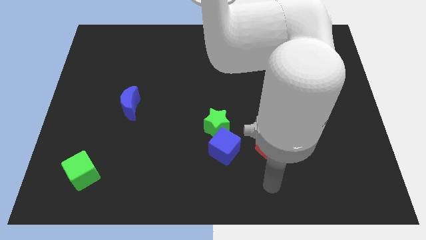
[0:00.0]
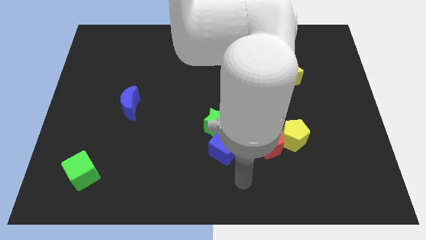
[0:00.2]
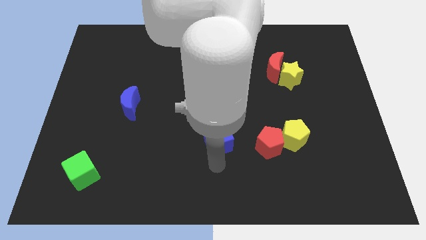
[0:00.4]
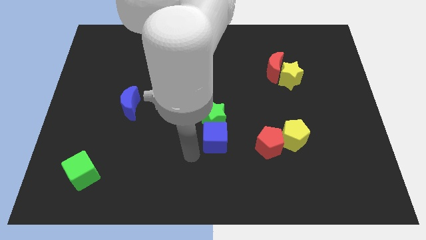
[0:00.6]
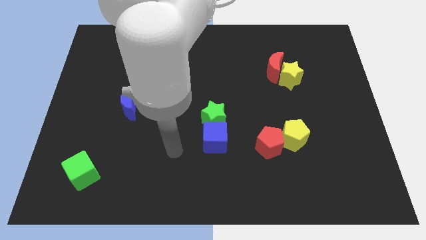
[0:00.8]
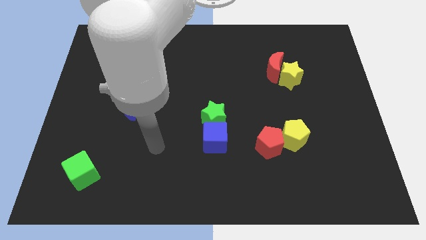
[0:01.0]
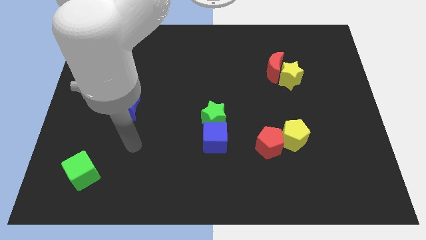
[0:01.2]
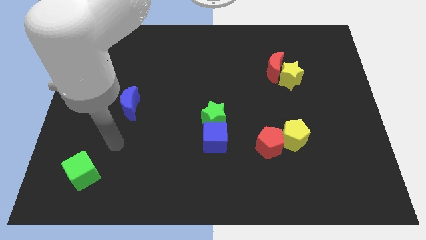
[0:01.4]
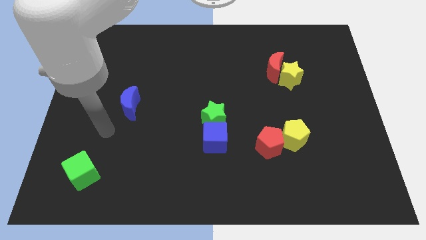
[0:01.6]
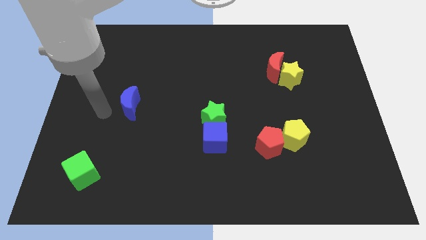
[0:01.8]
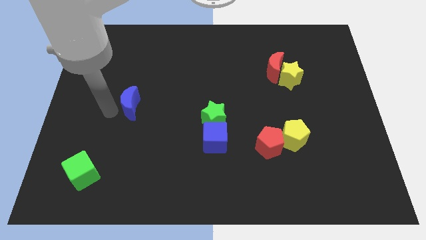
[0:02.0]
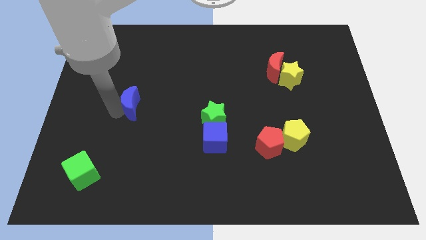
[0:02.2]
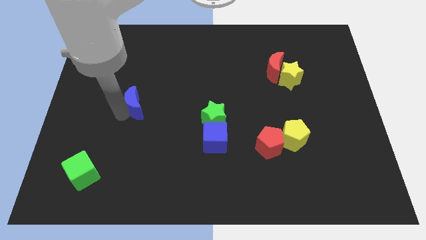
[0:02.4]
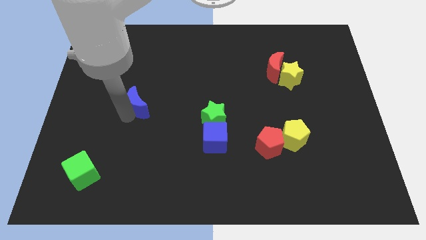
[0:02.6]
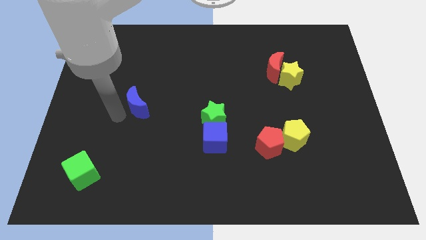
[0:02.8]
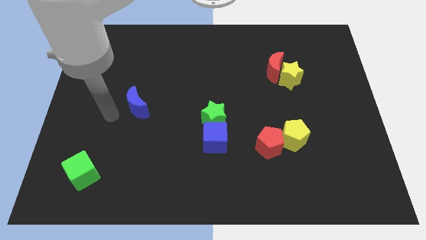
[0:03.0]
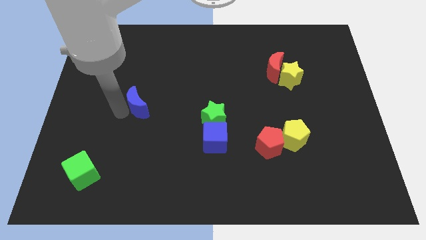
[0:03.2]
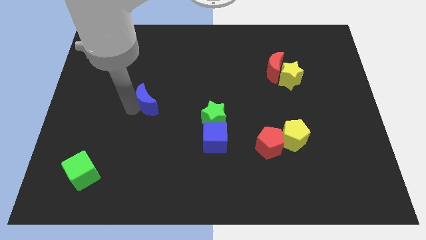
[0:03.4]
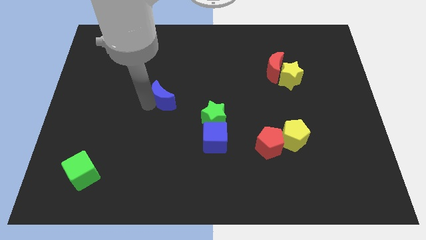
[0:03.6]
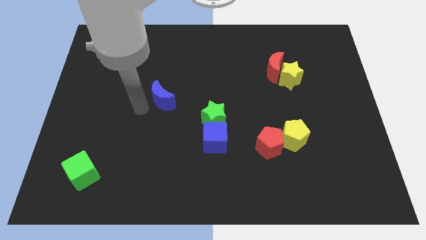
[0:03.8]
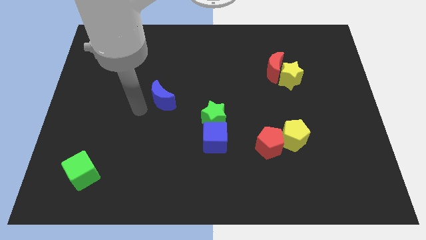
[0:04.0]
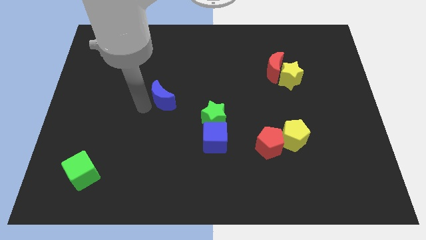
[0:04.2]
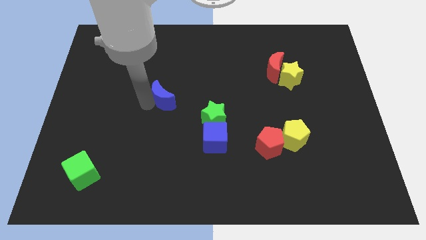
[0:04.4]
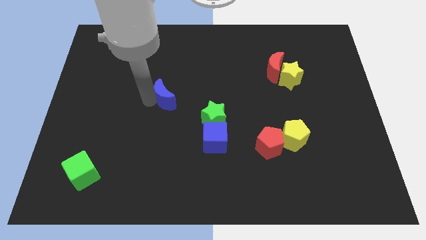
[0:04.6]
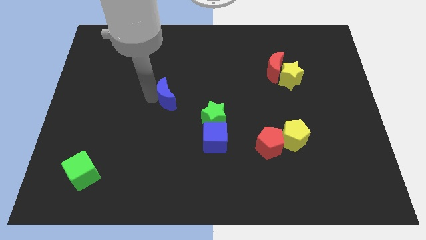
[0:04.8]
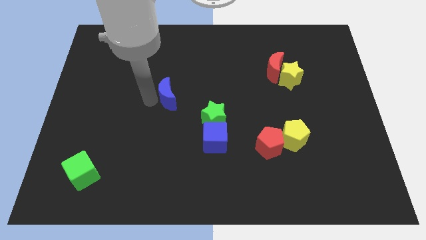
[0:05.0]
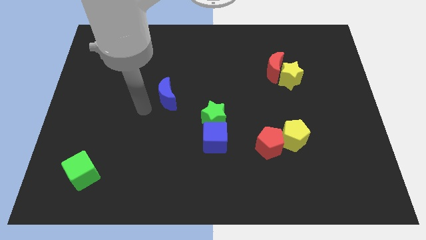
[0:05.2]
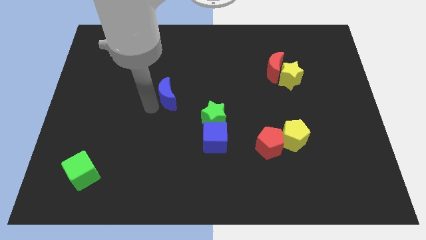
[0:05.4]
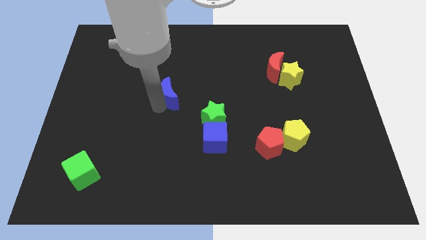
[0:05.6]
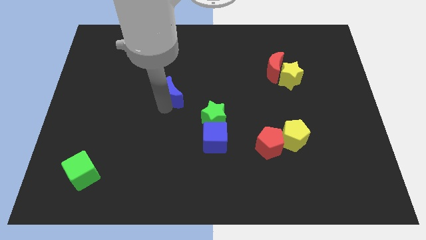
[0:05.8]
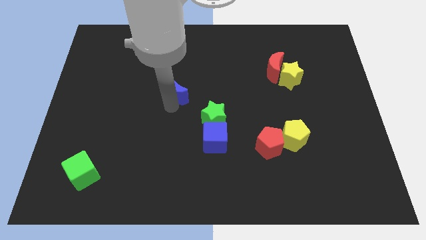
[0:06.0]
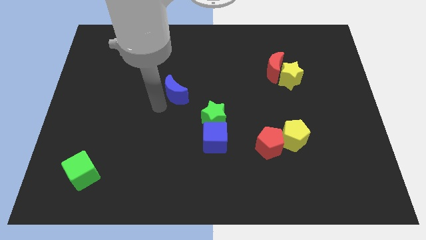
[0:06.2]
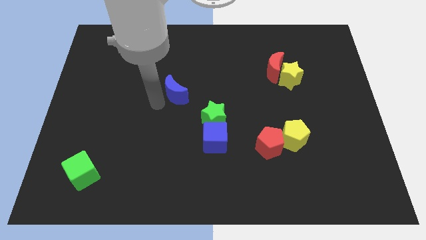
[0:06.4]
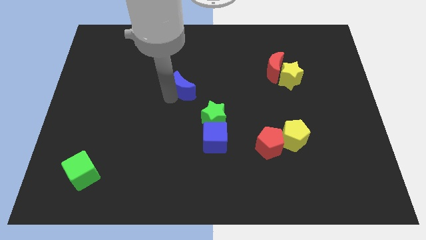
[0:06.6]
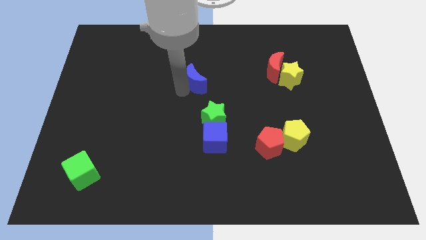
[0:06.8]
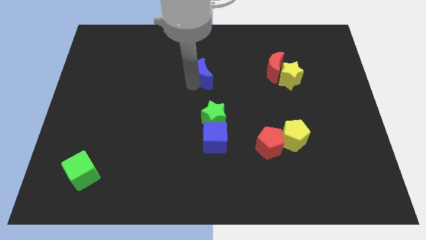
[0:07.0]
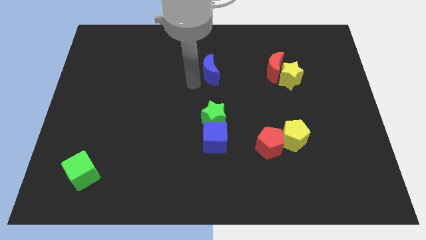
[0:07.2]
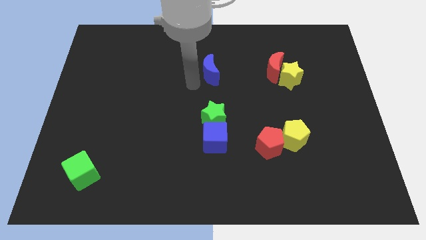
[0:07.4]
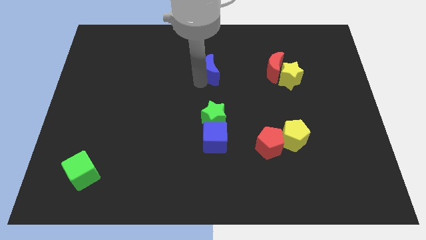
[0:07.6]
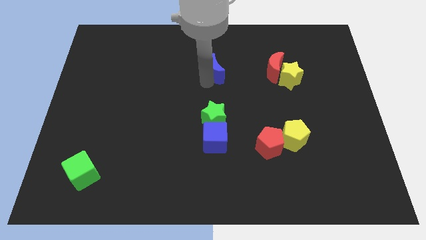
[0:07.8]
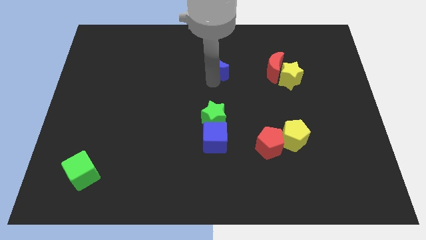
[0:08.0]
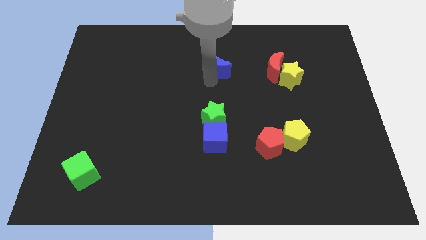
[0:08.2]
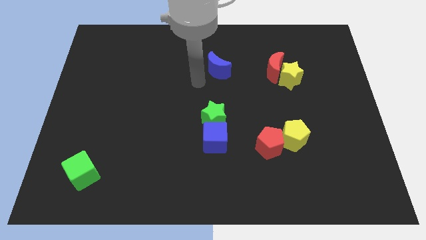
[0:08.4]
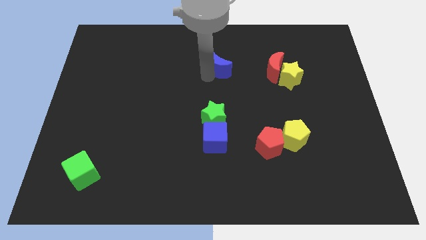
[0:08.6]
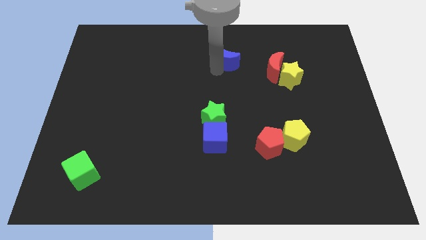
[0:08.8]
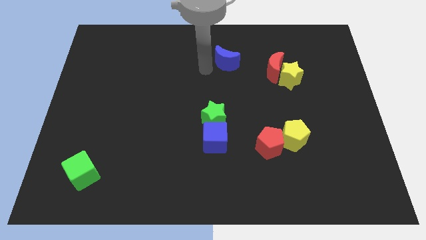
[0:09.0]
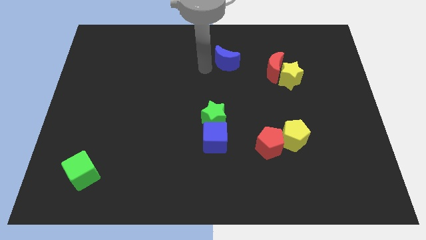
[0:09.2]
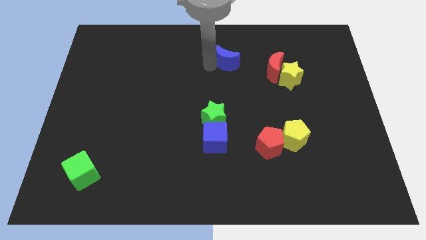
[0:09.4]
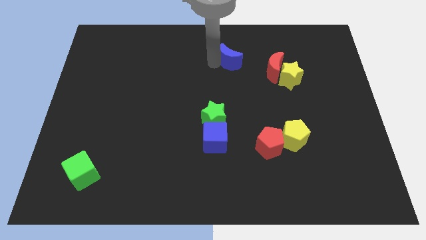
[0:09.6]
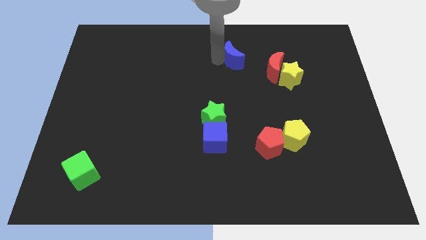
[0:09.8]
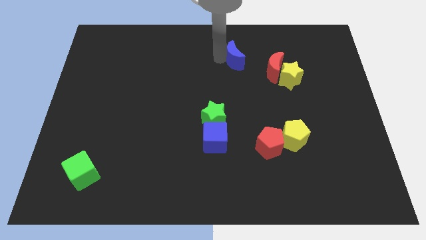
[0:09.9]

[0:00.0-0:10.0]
push the blue moon diagonally up and to the left of the red moon

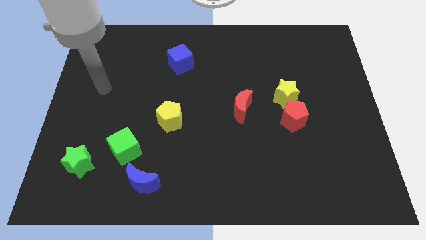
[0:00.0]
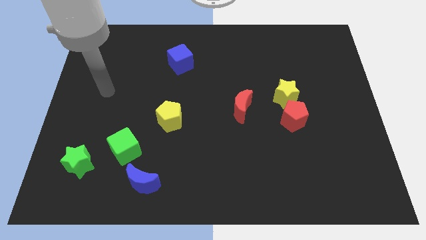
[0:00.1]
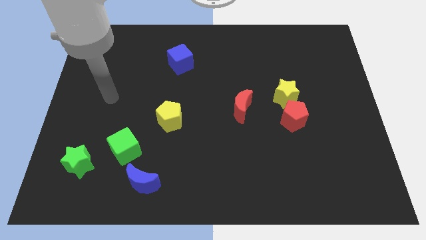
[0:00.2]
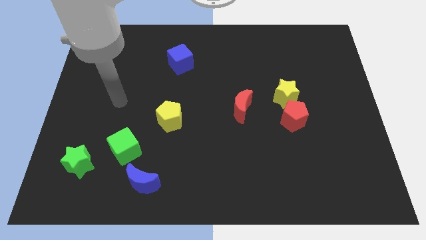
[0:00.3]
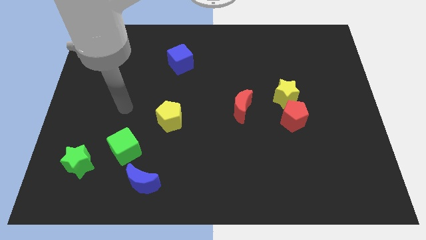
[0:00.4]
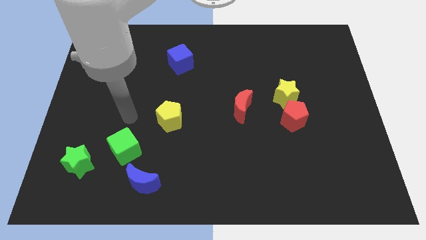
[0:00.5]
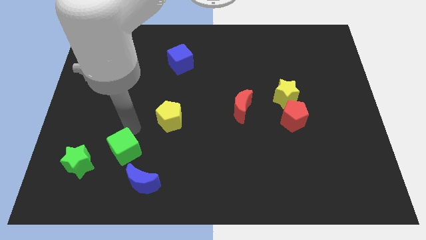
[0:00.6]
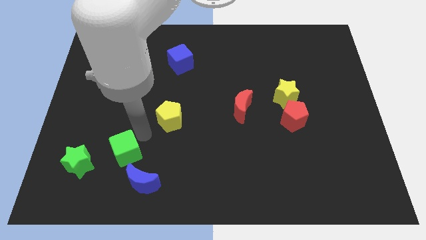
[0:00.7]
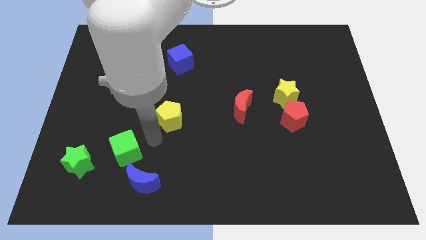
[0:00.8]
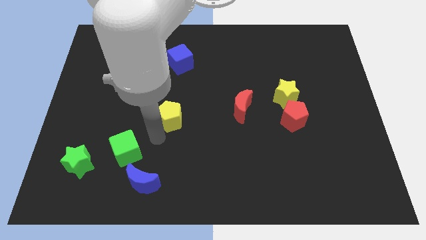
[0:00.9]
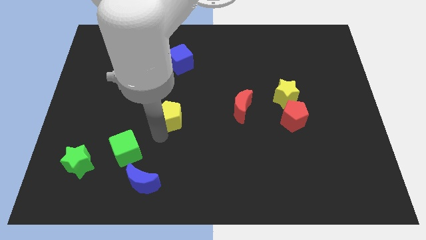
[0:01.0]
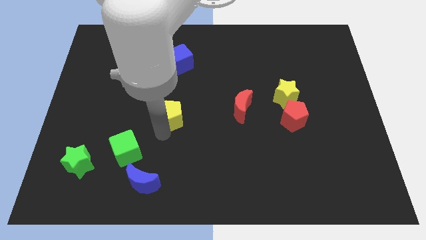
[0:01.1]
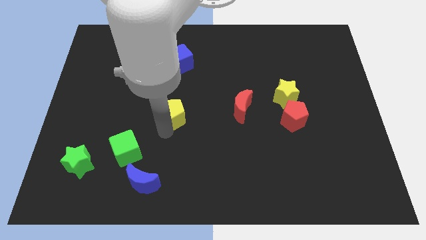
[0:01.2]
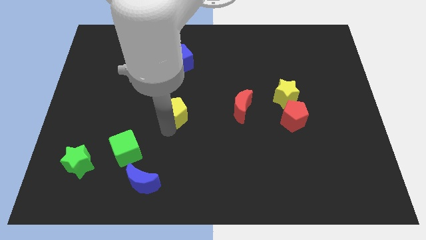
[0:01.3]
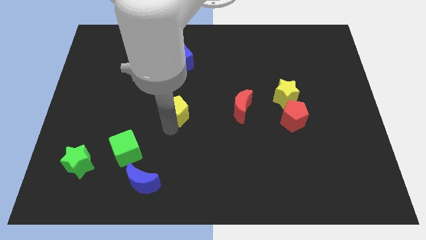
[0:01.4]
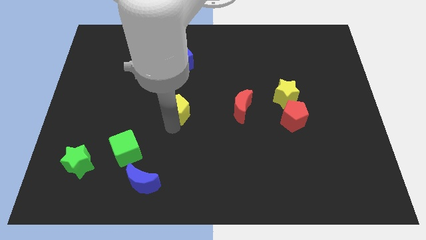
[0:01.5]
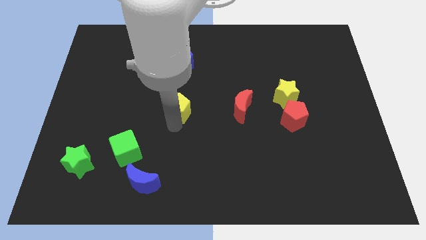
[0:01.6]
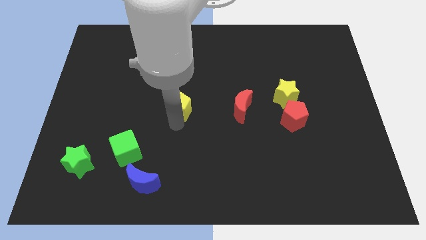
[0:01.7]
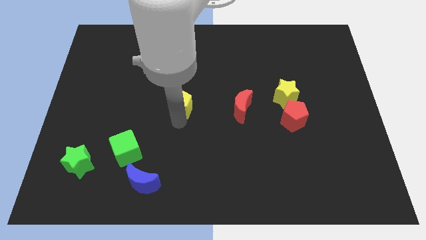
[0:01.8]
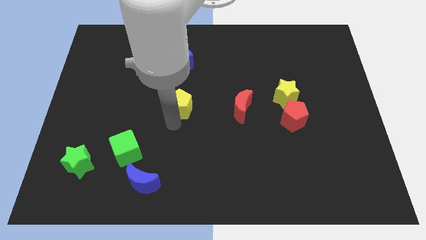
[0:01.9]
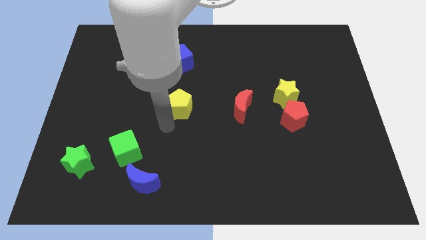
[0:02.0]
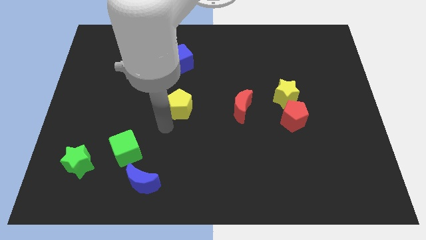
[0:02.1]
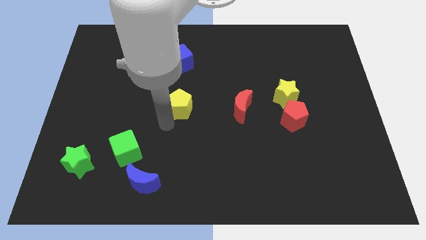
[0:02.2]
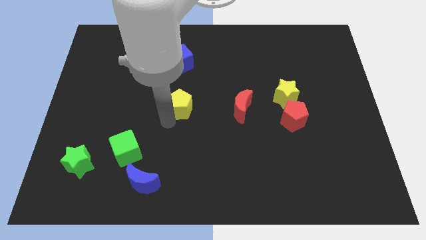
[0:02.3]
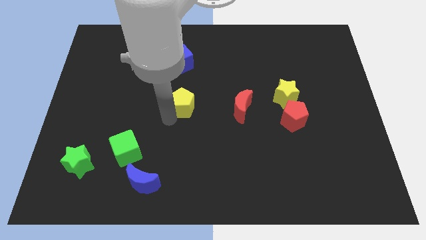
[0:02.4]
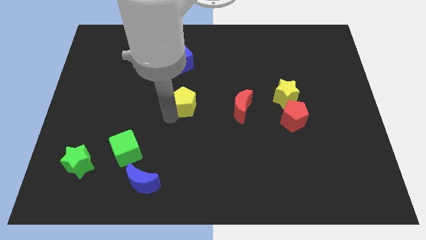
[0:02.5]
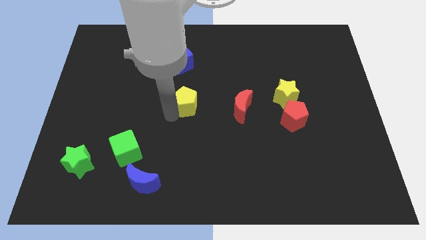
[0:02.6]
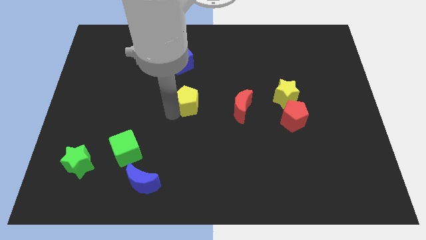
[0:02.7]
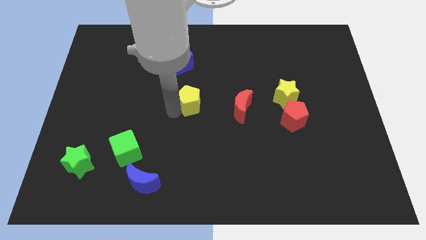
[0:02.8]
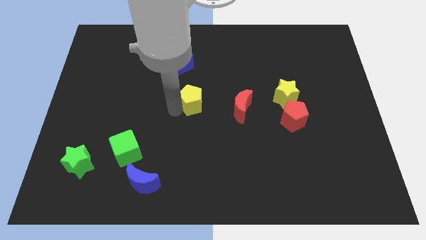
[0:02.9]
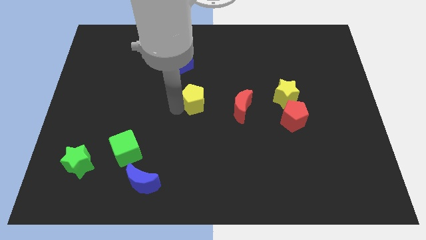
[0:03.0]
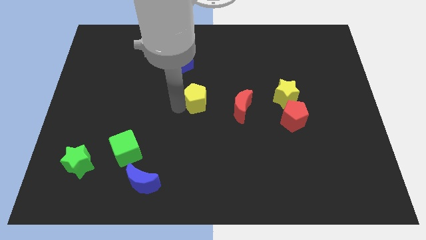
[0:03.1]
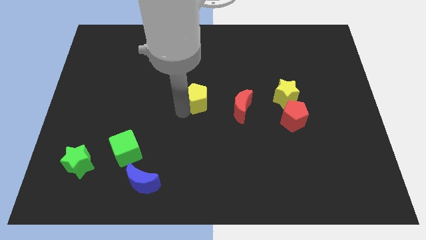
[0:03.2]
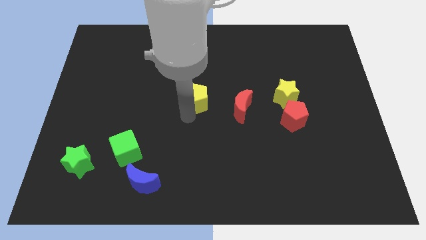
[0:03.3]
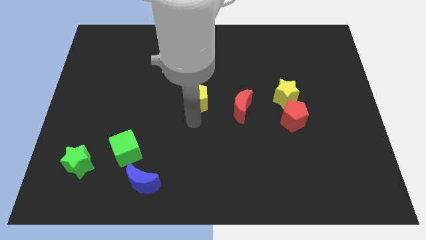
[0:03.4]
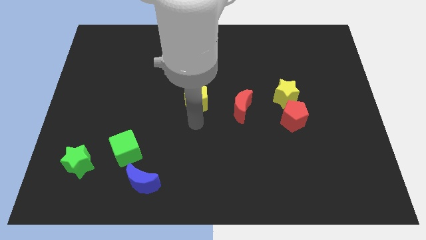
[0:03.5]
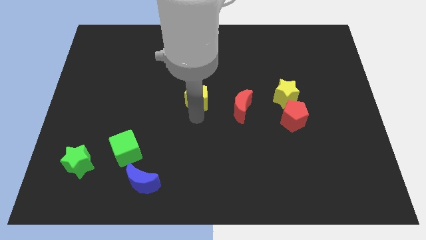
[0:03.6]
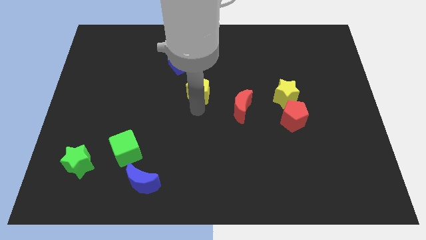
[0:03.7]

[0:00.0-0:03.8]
put the yellow pentagon to the bottom right of the blue cube
